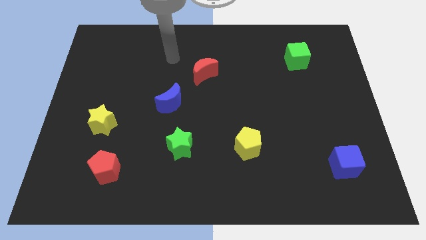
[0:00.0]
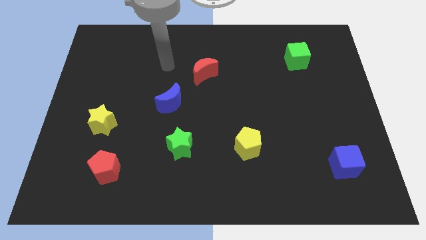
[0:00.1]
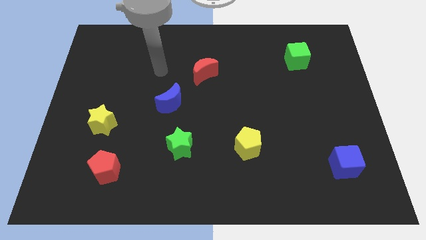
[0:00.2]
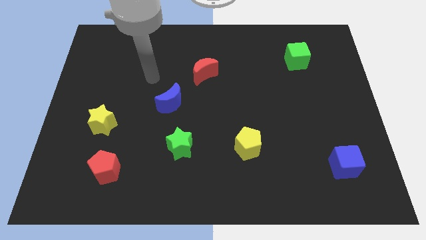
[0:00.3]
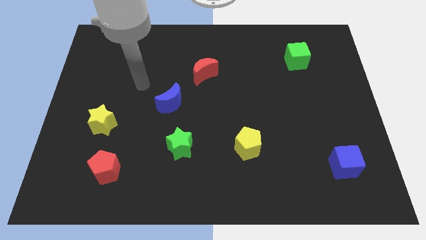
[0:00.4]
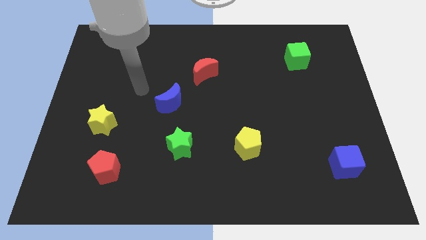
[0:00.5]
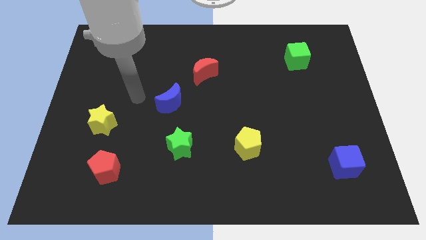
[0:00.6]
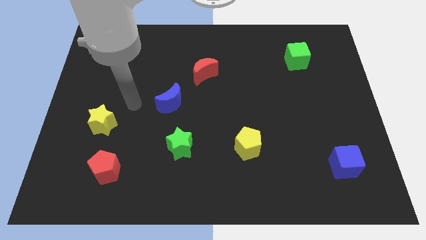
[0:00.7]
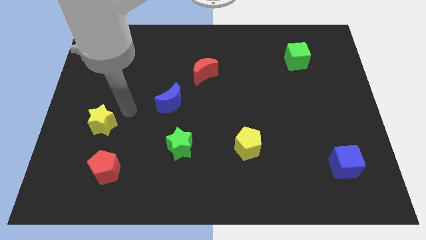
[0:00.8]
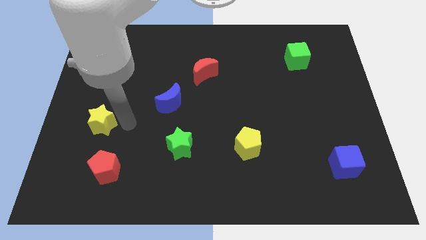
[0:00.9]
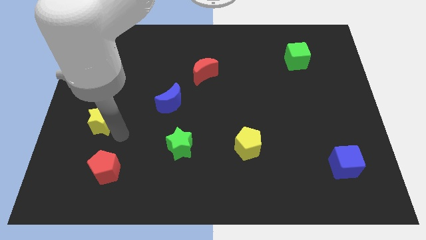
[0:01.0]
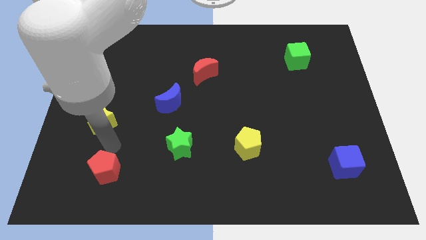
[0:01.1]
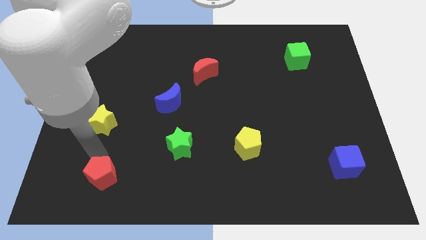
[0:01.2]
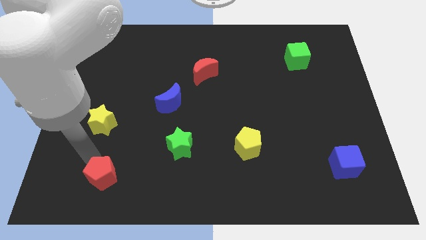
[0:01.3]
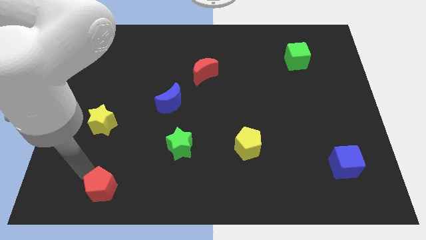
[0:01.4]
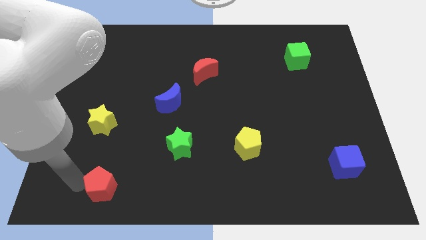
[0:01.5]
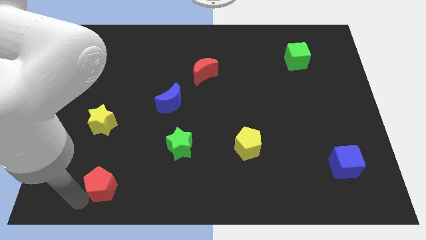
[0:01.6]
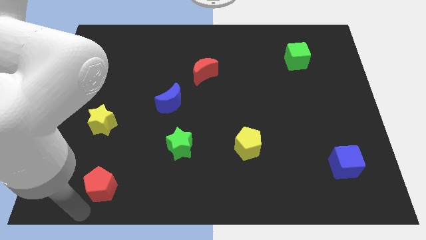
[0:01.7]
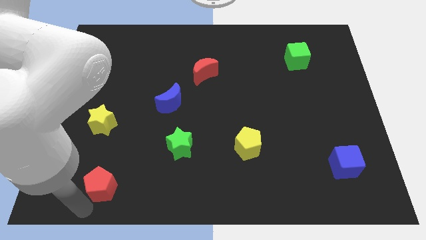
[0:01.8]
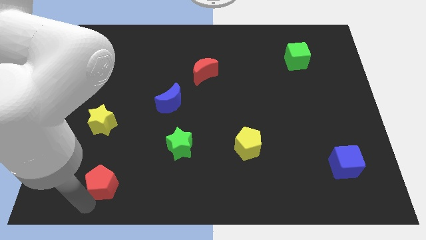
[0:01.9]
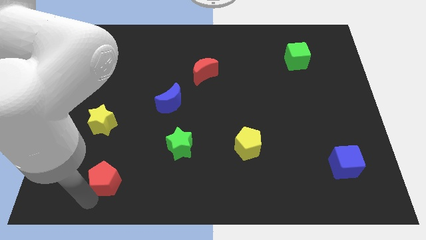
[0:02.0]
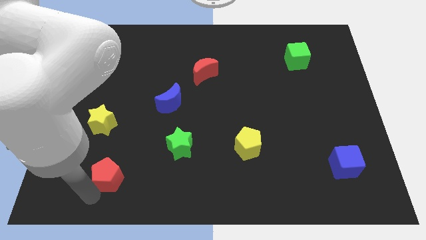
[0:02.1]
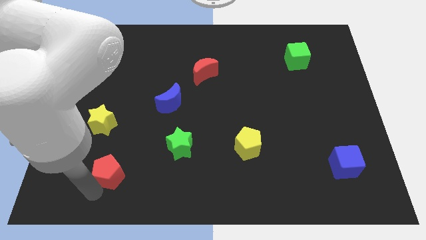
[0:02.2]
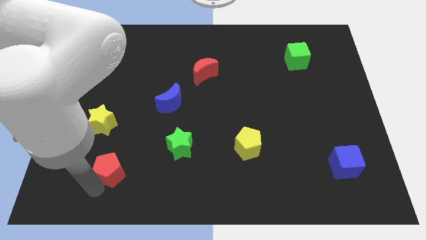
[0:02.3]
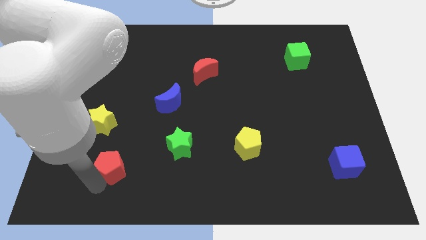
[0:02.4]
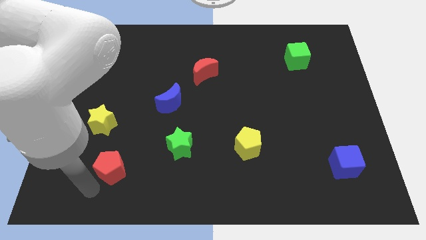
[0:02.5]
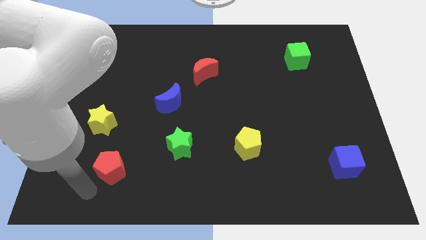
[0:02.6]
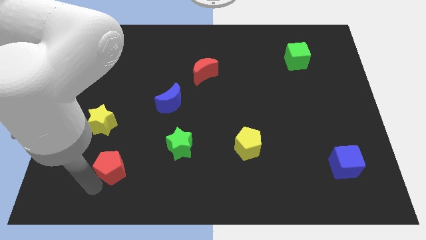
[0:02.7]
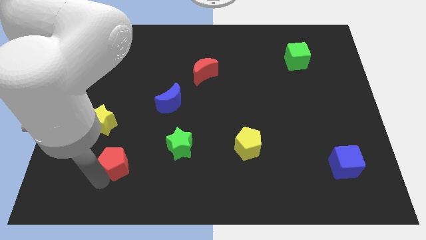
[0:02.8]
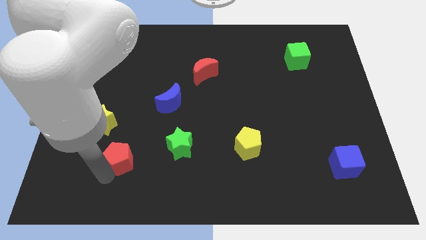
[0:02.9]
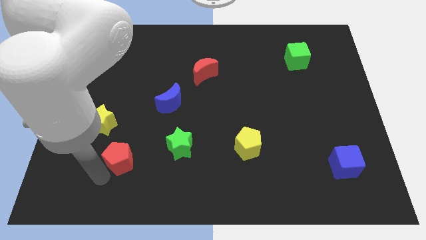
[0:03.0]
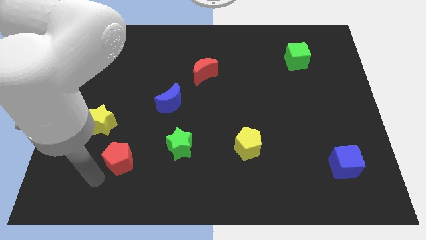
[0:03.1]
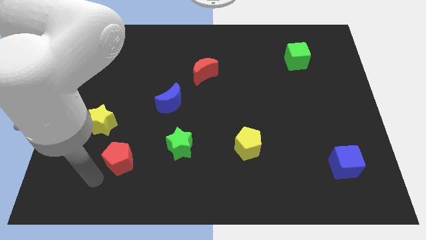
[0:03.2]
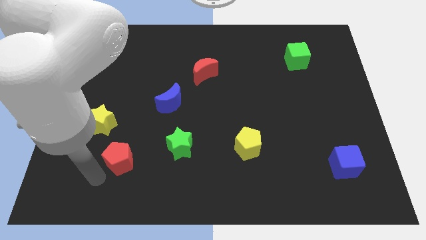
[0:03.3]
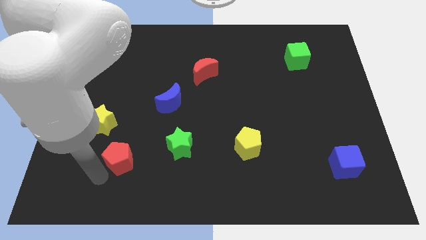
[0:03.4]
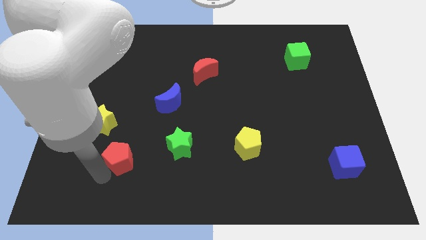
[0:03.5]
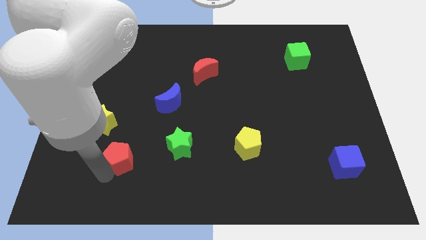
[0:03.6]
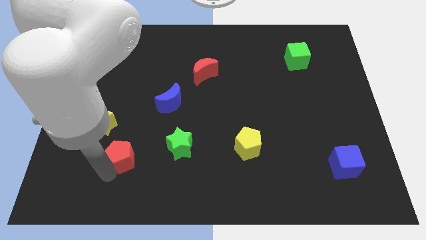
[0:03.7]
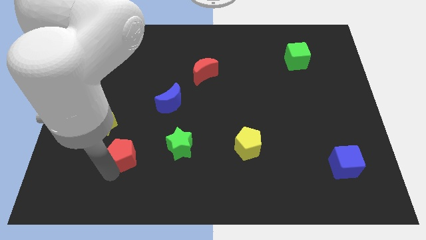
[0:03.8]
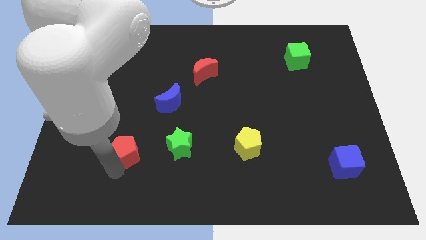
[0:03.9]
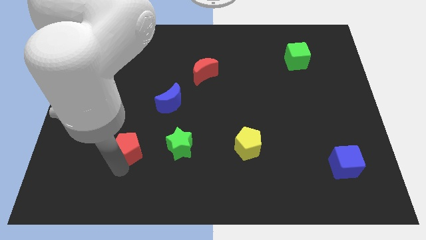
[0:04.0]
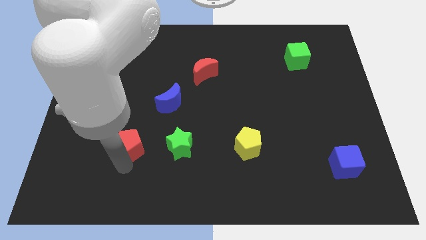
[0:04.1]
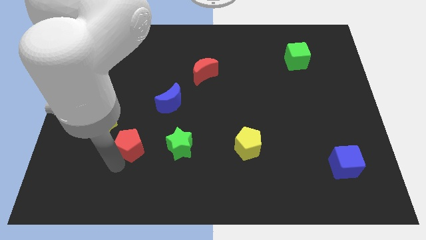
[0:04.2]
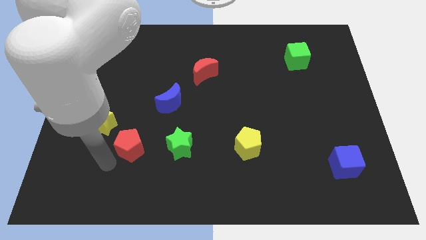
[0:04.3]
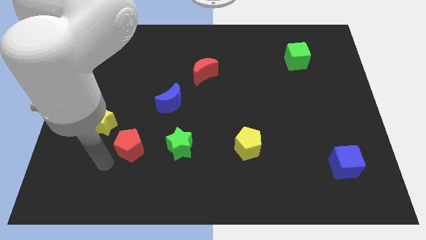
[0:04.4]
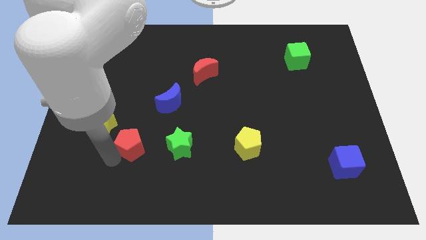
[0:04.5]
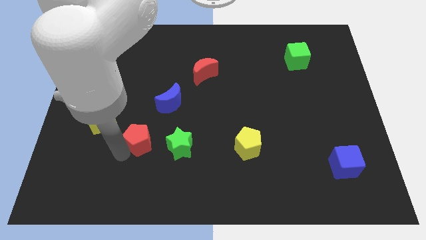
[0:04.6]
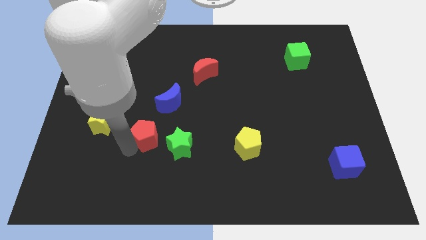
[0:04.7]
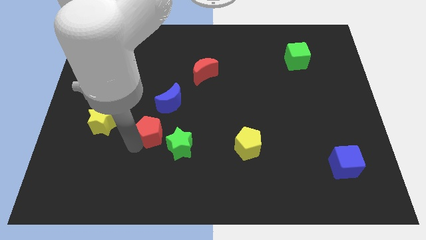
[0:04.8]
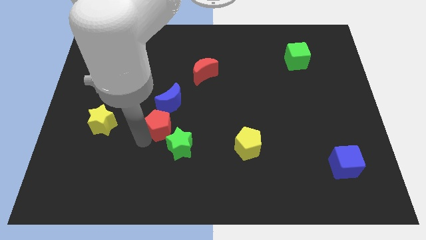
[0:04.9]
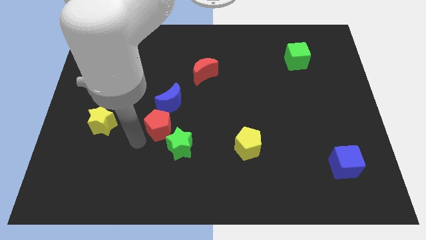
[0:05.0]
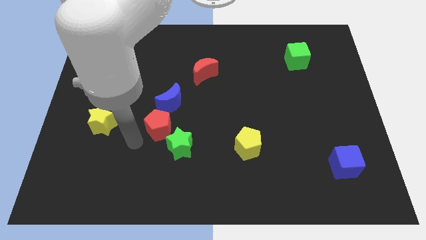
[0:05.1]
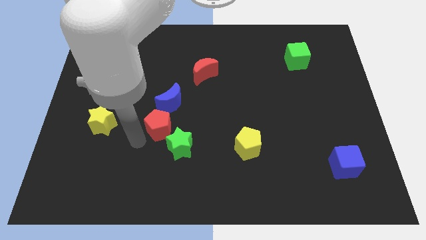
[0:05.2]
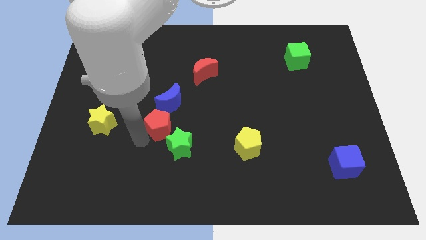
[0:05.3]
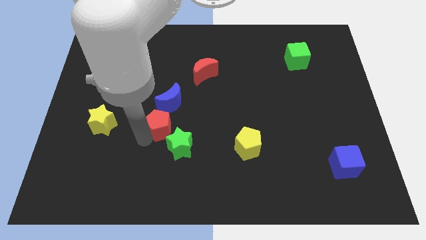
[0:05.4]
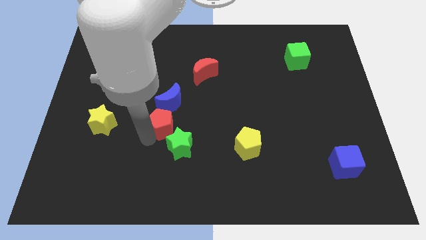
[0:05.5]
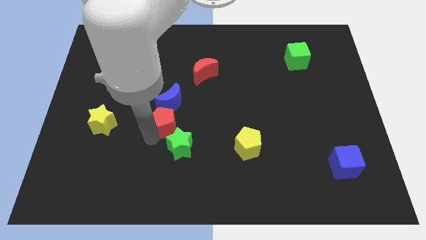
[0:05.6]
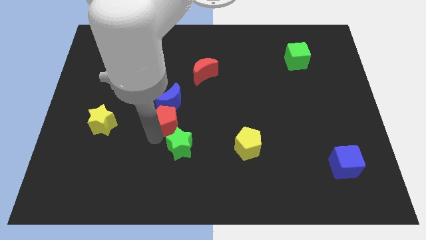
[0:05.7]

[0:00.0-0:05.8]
move the red pentagon to the center of the board

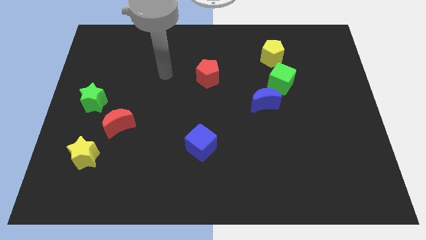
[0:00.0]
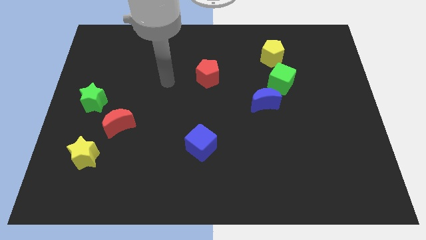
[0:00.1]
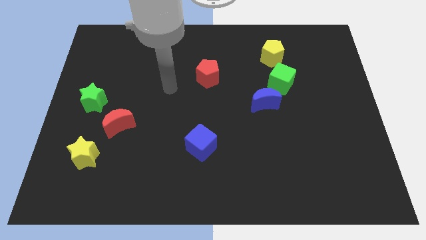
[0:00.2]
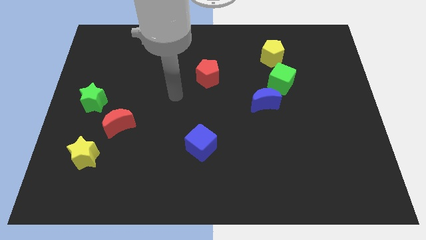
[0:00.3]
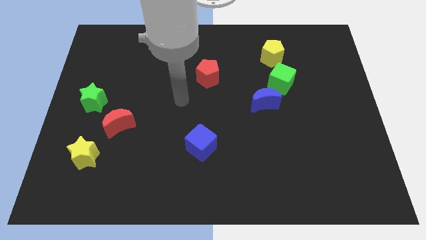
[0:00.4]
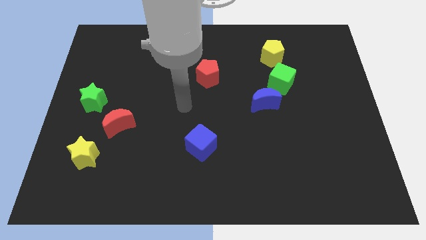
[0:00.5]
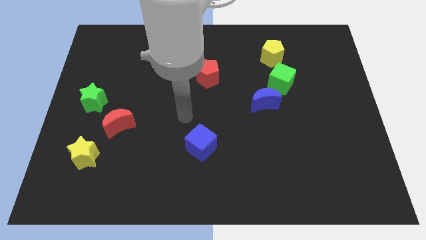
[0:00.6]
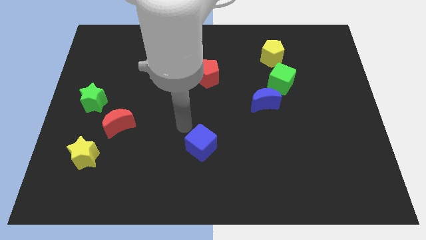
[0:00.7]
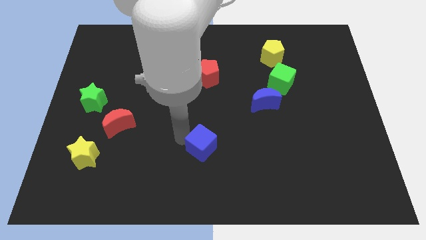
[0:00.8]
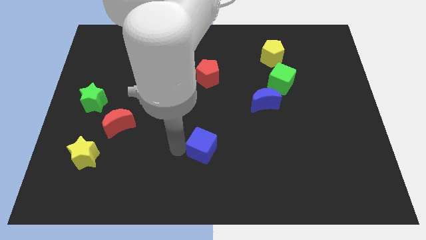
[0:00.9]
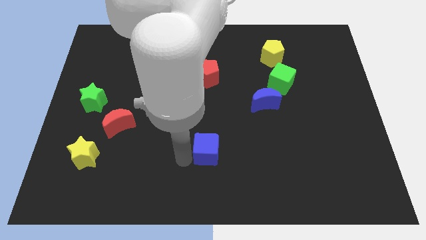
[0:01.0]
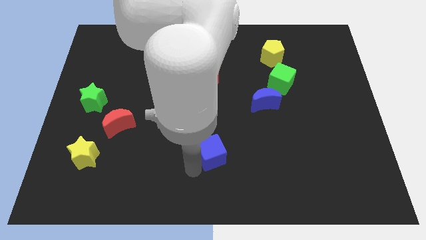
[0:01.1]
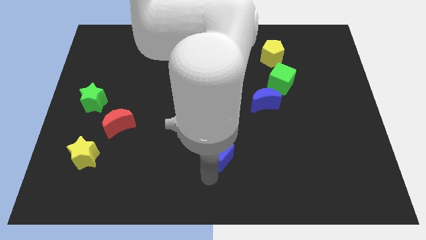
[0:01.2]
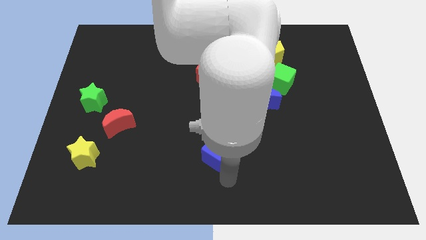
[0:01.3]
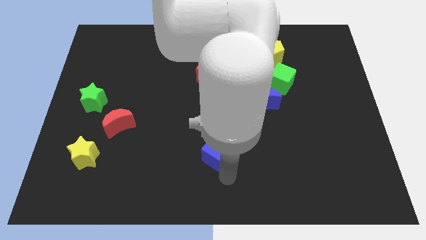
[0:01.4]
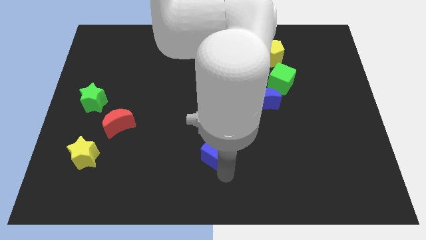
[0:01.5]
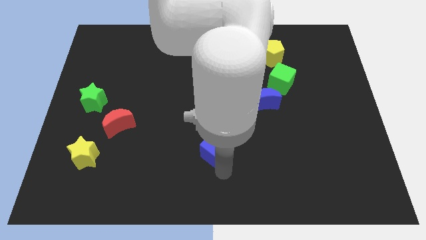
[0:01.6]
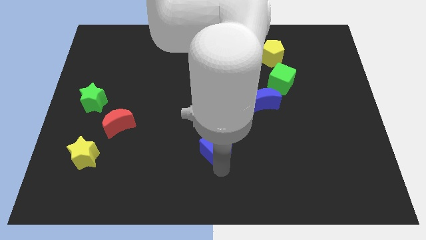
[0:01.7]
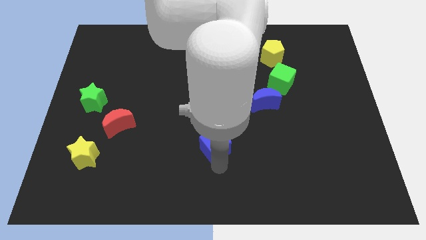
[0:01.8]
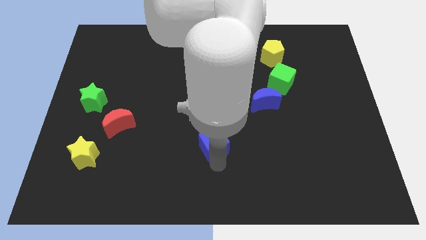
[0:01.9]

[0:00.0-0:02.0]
push the blue cube to the middle
